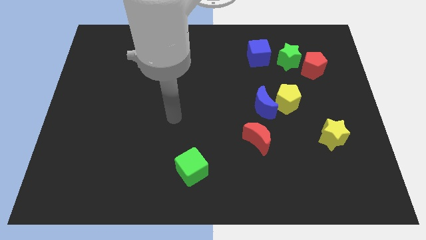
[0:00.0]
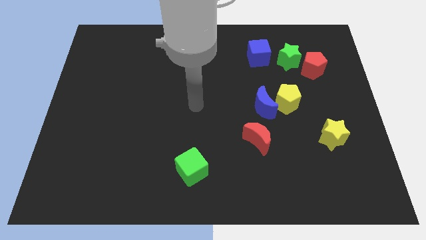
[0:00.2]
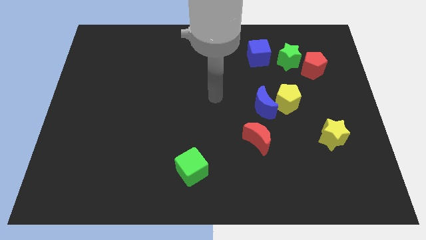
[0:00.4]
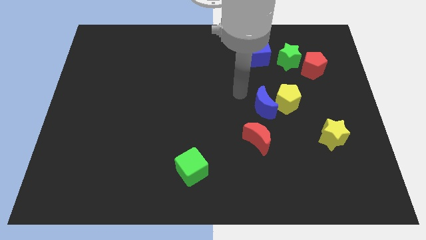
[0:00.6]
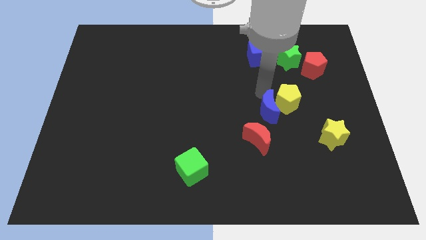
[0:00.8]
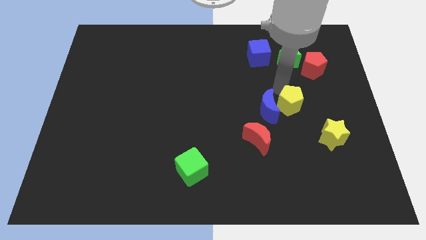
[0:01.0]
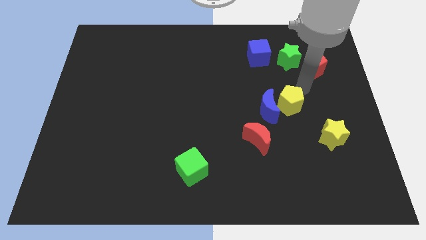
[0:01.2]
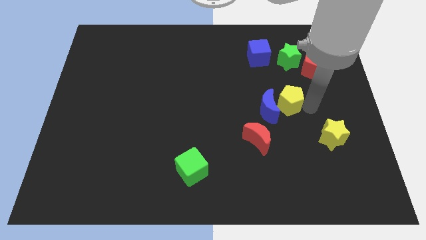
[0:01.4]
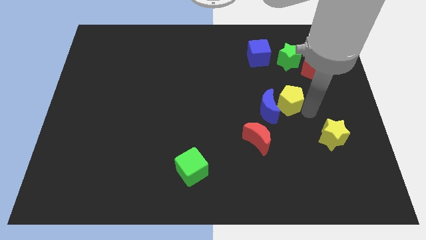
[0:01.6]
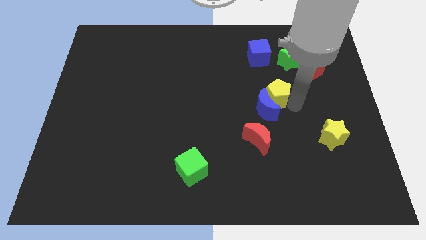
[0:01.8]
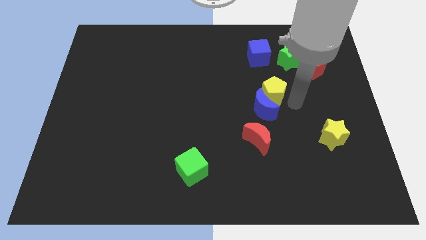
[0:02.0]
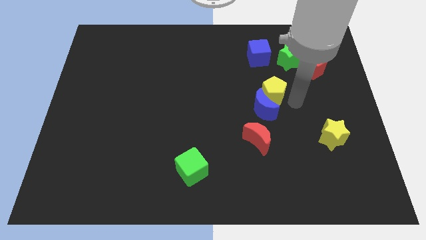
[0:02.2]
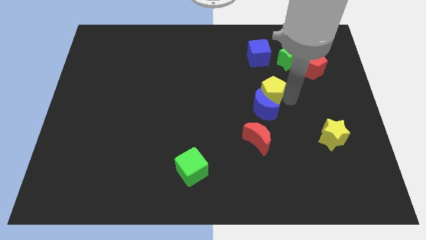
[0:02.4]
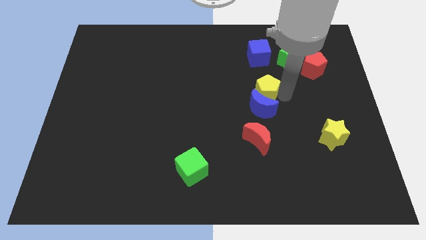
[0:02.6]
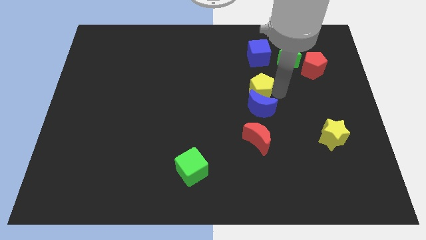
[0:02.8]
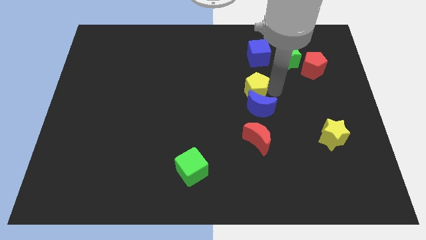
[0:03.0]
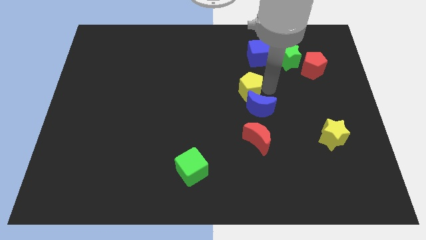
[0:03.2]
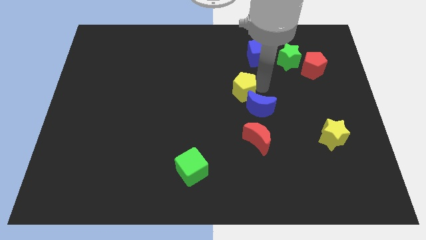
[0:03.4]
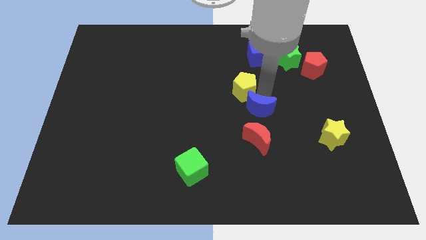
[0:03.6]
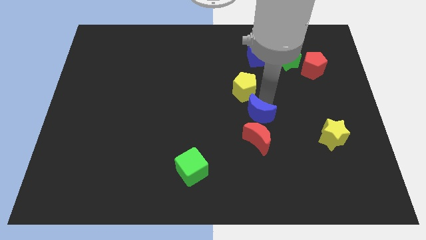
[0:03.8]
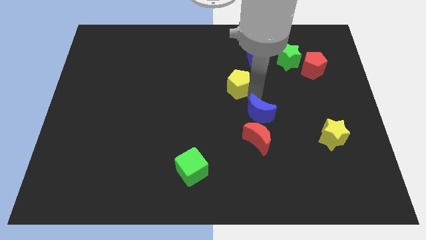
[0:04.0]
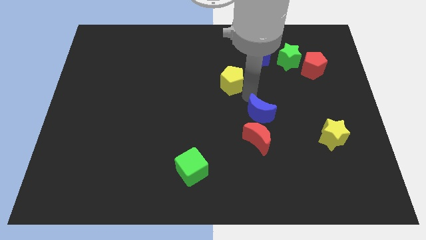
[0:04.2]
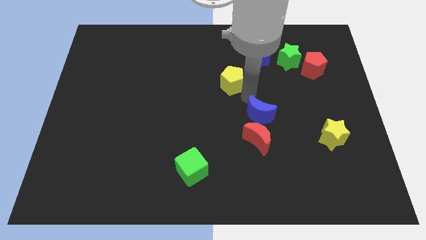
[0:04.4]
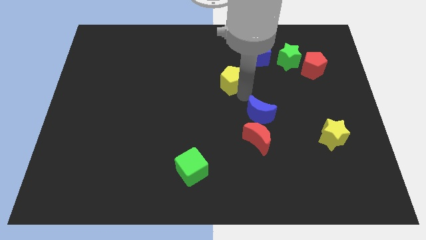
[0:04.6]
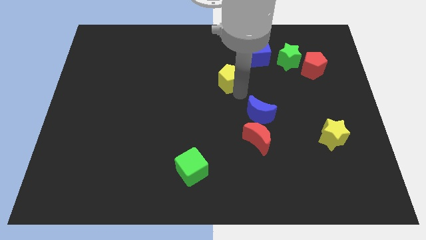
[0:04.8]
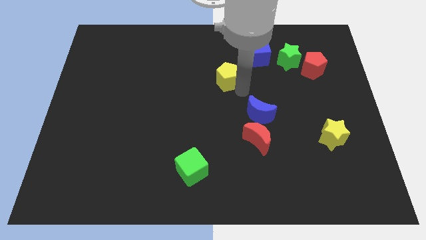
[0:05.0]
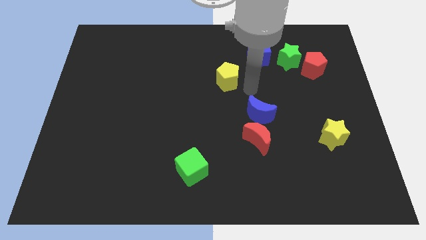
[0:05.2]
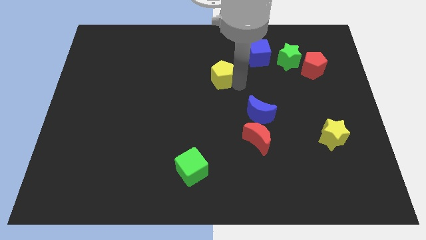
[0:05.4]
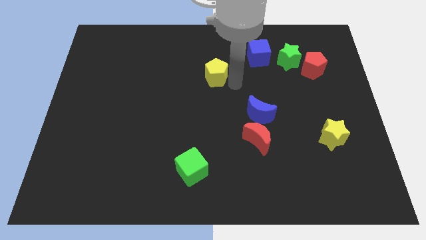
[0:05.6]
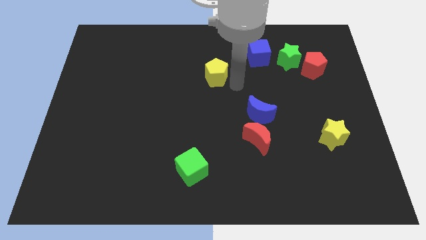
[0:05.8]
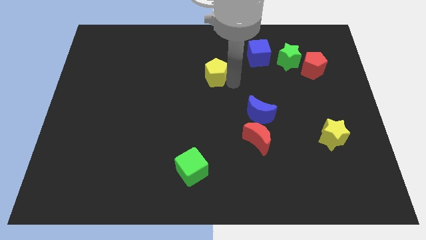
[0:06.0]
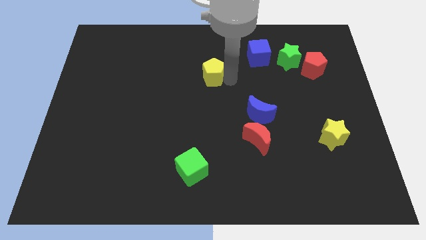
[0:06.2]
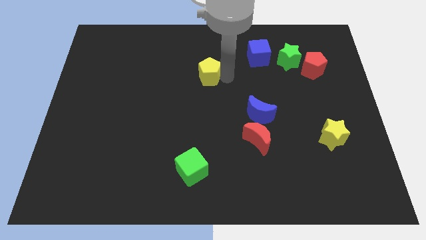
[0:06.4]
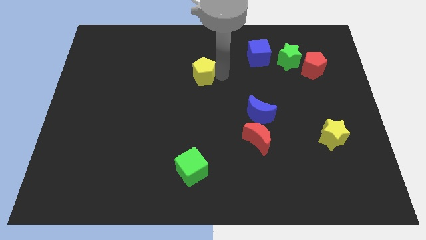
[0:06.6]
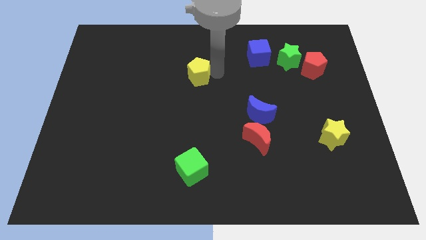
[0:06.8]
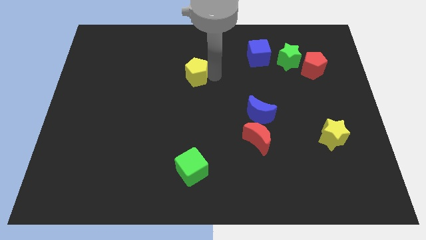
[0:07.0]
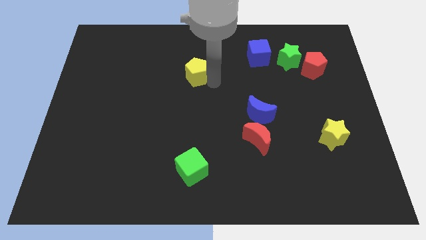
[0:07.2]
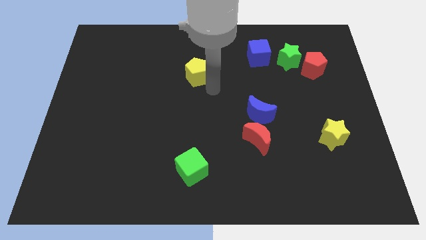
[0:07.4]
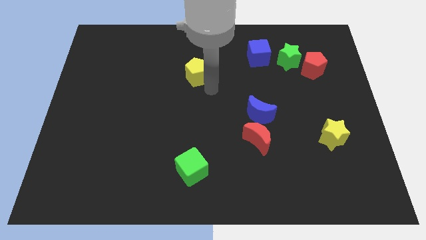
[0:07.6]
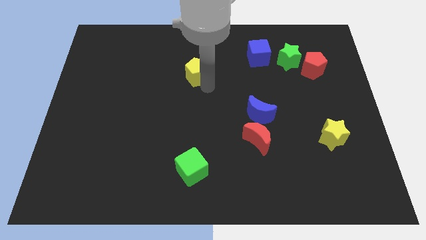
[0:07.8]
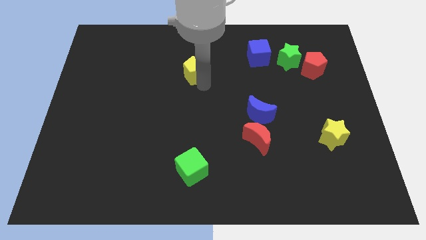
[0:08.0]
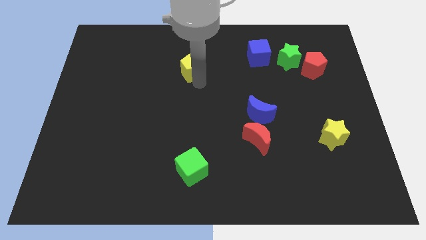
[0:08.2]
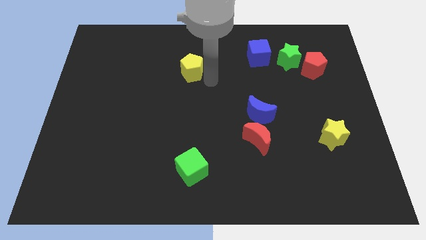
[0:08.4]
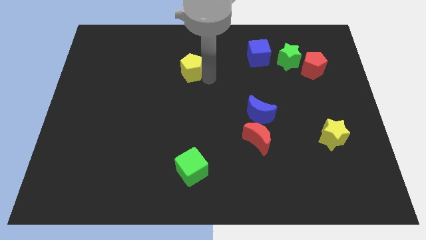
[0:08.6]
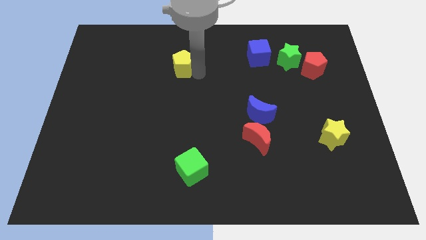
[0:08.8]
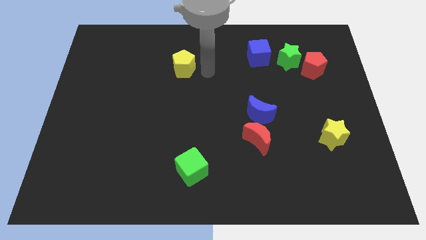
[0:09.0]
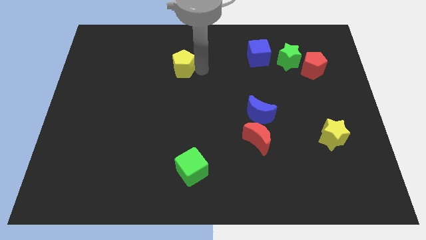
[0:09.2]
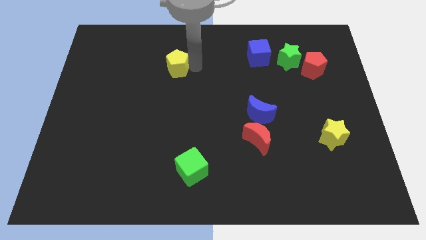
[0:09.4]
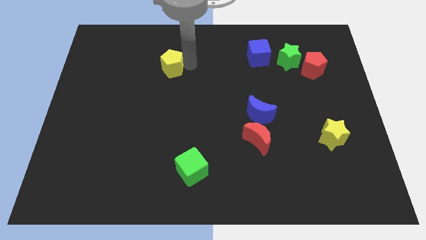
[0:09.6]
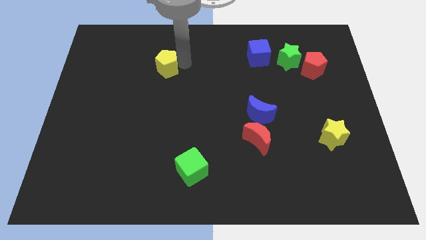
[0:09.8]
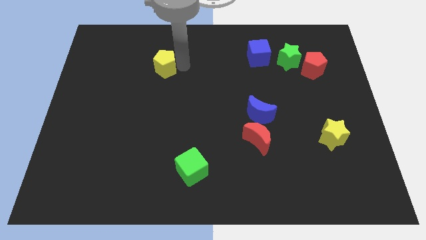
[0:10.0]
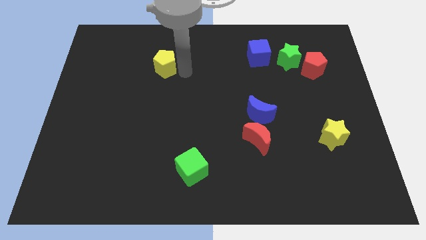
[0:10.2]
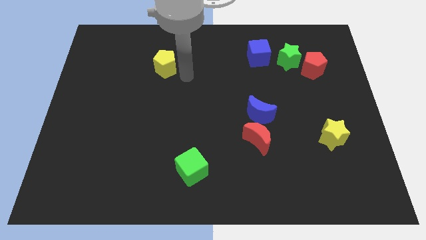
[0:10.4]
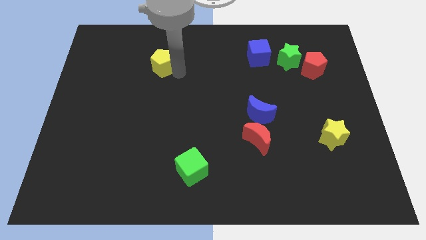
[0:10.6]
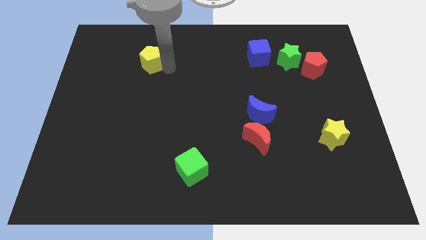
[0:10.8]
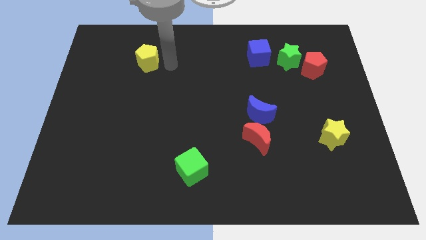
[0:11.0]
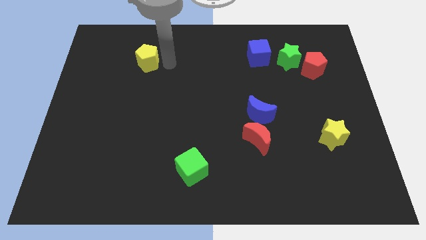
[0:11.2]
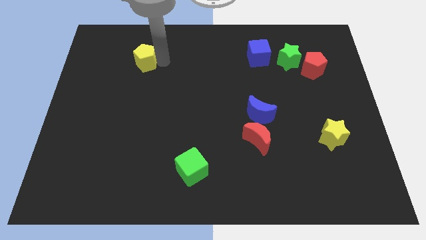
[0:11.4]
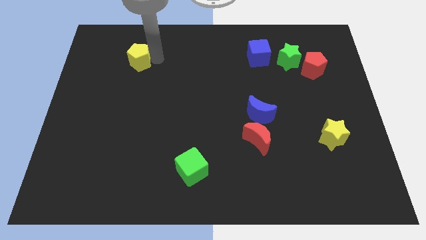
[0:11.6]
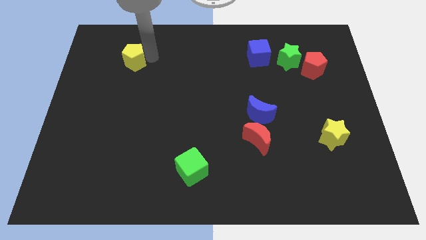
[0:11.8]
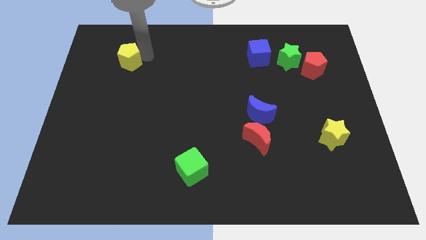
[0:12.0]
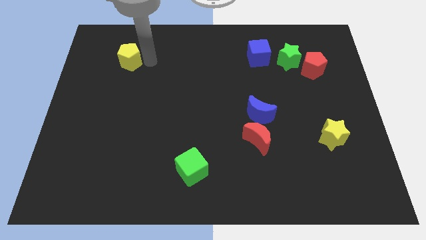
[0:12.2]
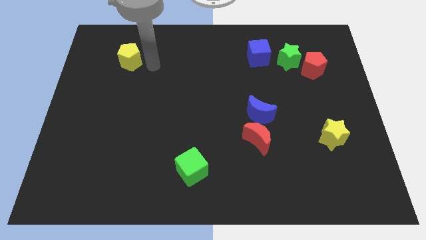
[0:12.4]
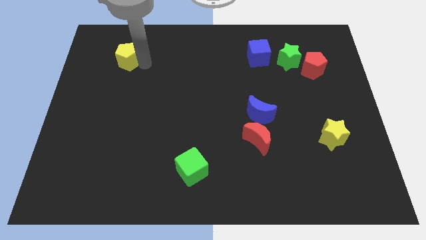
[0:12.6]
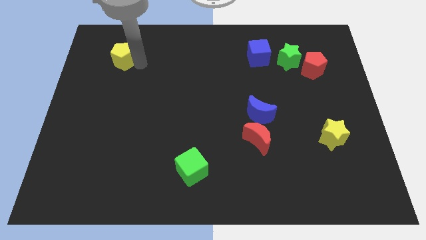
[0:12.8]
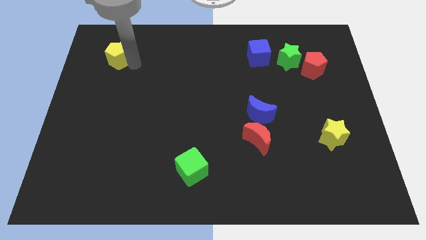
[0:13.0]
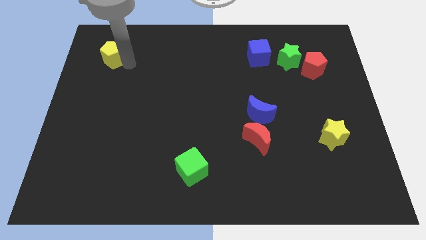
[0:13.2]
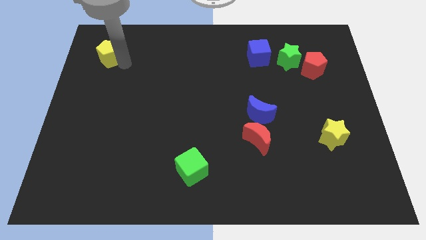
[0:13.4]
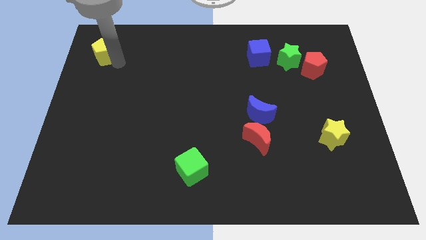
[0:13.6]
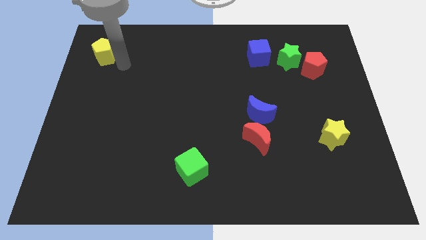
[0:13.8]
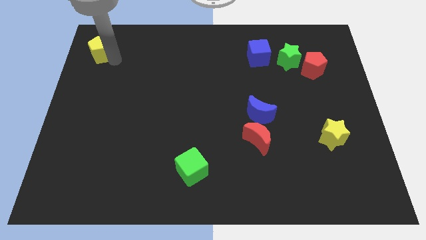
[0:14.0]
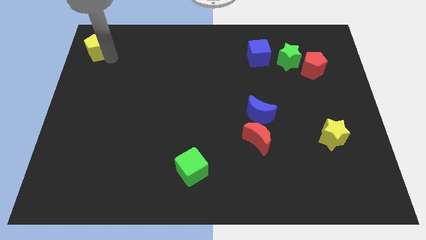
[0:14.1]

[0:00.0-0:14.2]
move the yellow pentagon to the top left
